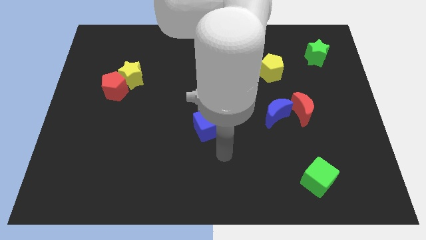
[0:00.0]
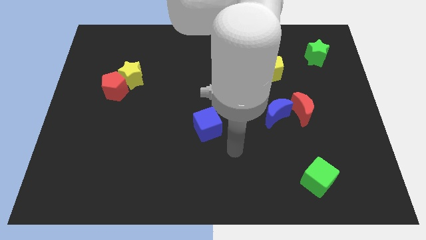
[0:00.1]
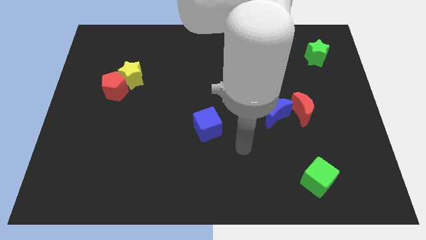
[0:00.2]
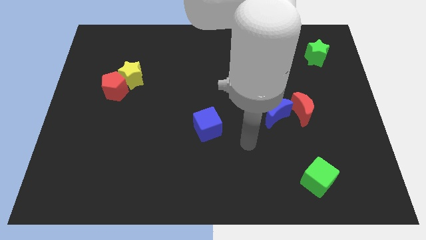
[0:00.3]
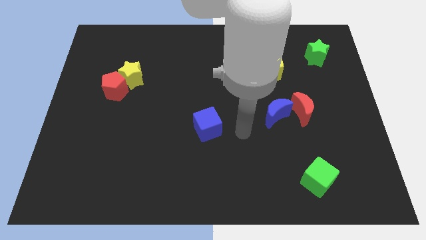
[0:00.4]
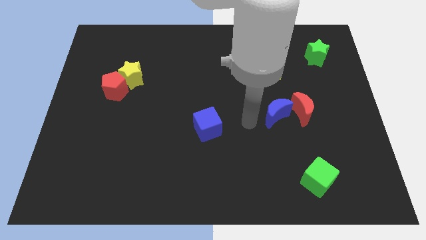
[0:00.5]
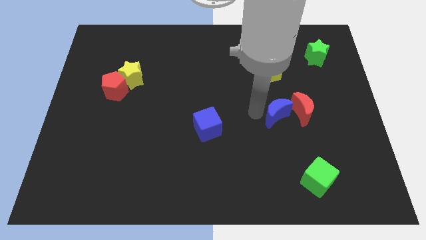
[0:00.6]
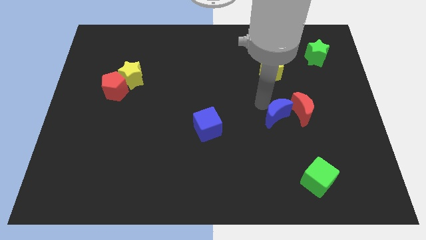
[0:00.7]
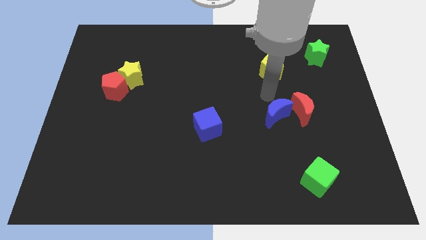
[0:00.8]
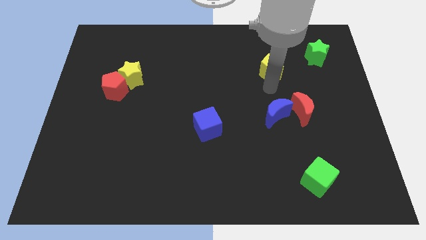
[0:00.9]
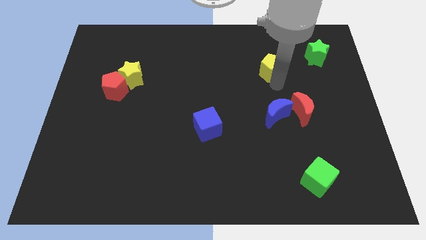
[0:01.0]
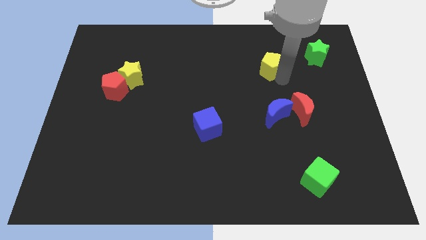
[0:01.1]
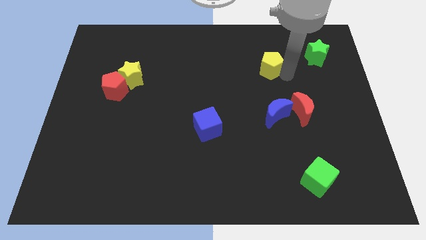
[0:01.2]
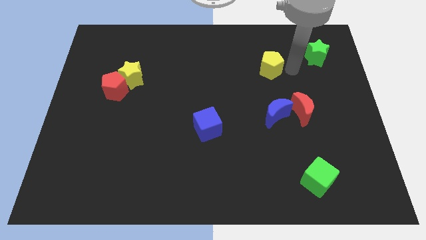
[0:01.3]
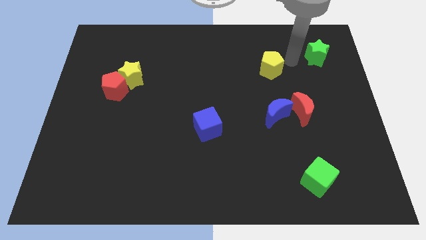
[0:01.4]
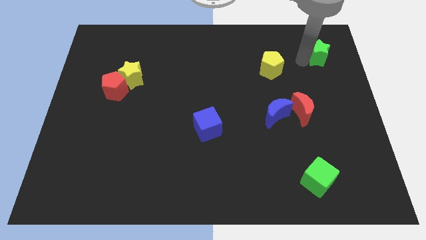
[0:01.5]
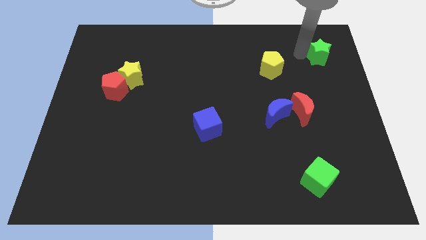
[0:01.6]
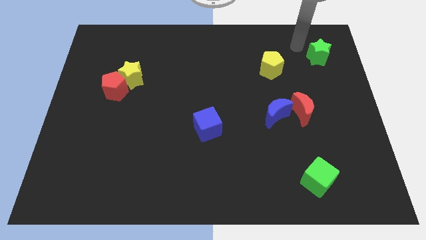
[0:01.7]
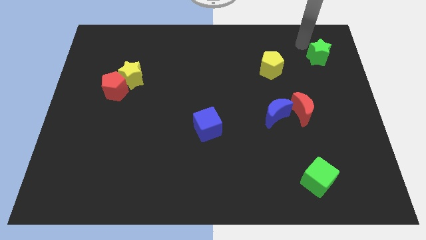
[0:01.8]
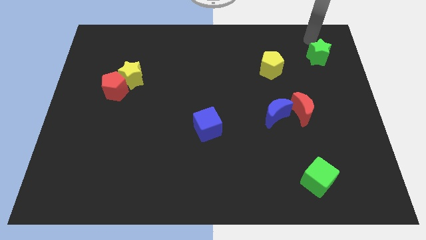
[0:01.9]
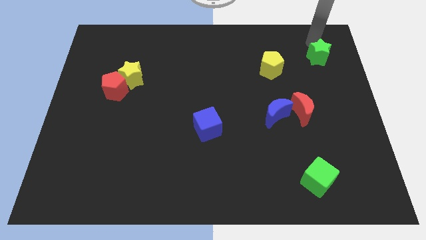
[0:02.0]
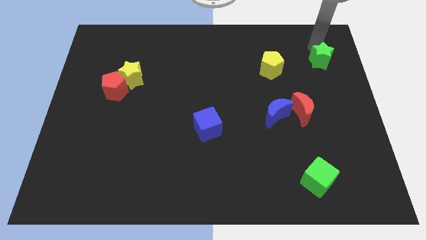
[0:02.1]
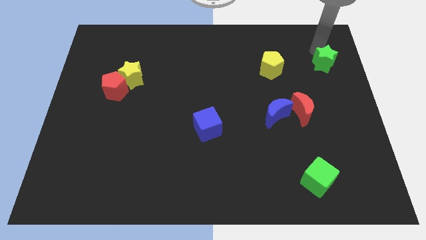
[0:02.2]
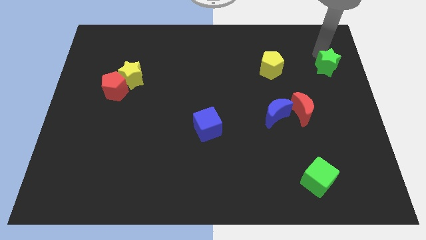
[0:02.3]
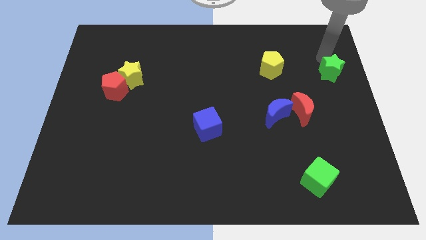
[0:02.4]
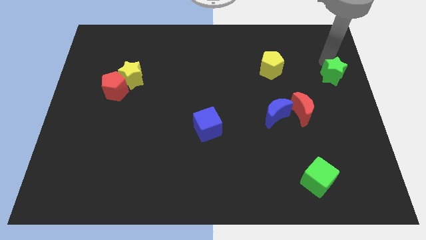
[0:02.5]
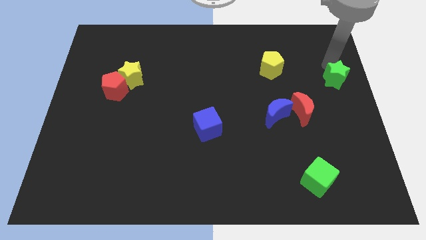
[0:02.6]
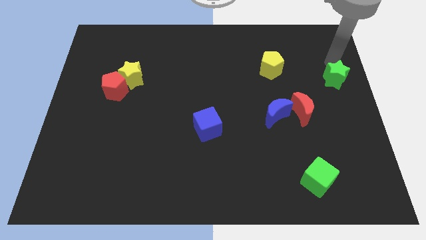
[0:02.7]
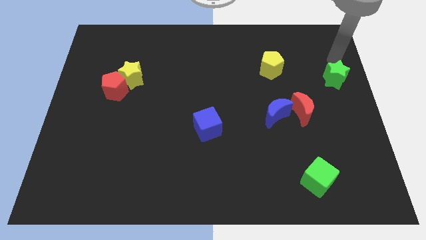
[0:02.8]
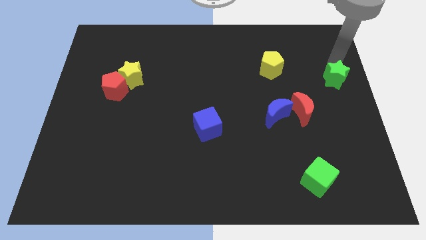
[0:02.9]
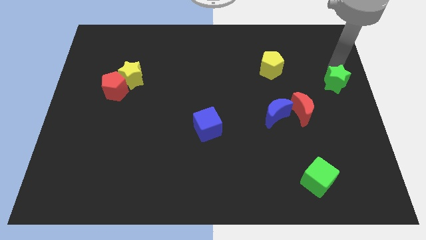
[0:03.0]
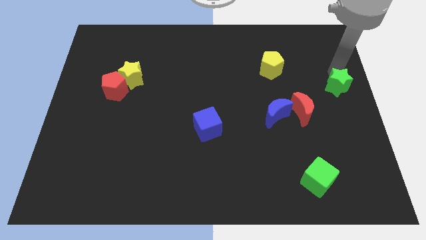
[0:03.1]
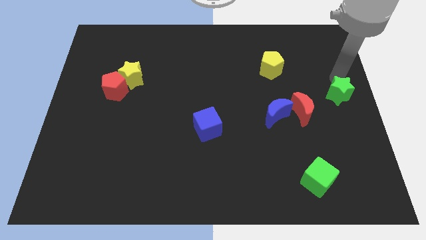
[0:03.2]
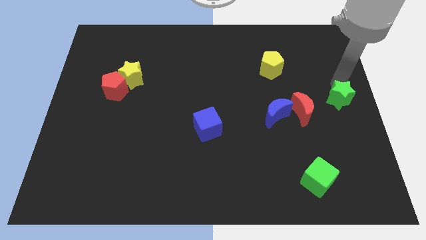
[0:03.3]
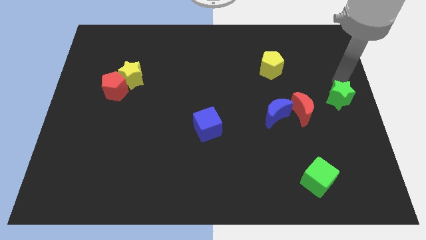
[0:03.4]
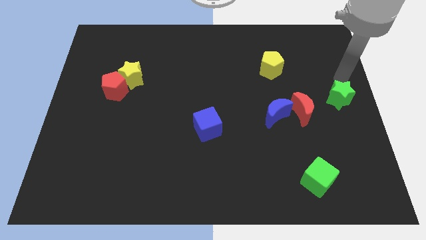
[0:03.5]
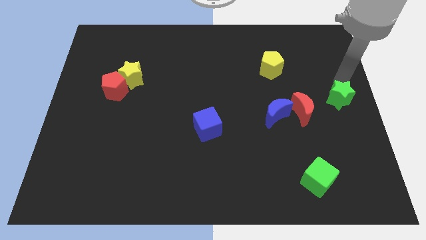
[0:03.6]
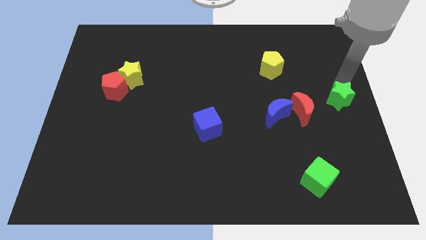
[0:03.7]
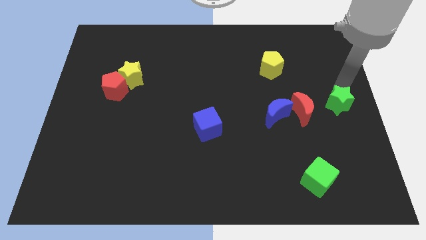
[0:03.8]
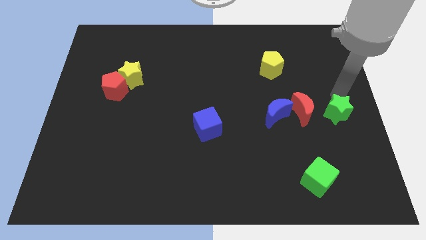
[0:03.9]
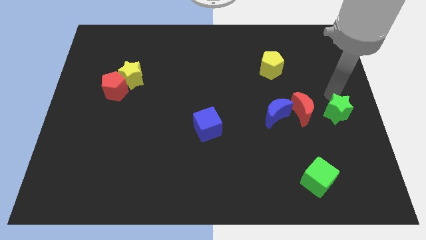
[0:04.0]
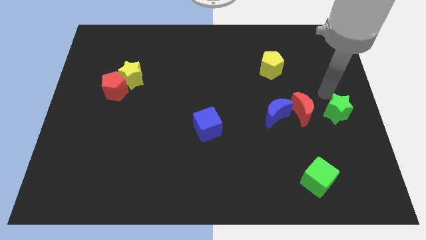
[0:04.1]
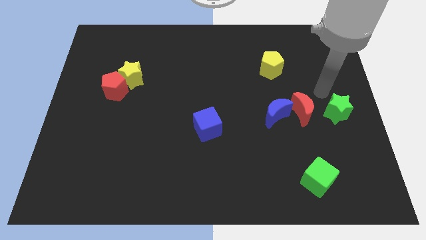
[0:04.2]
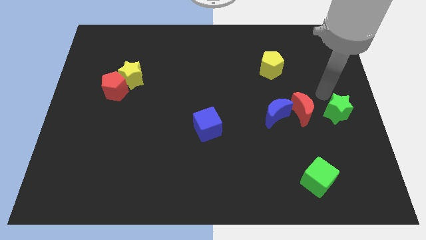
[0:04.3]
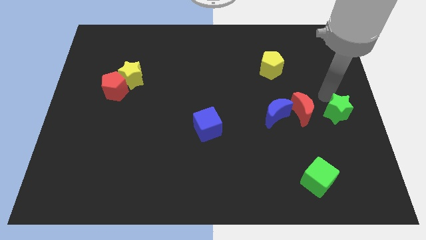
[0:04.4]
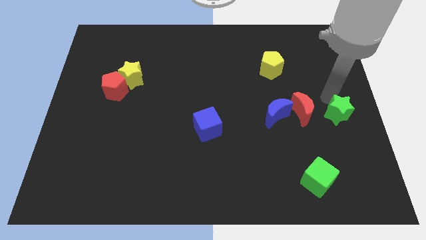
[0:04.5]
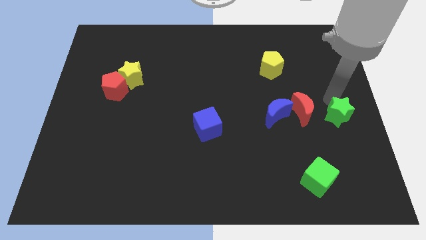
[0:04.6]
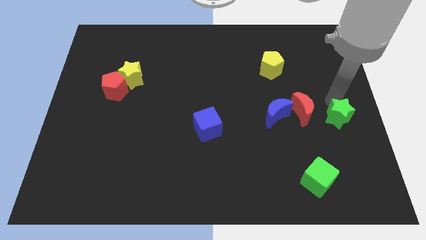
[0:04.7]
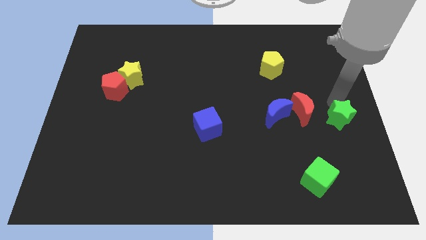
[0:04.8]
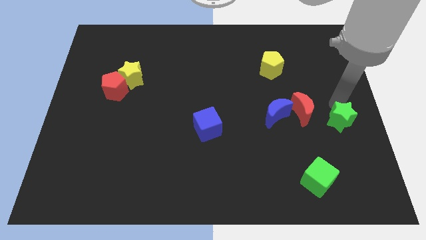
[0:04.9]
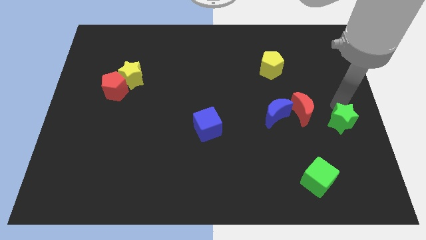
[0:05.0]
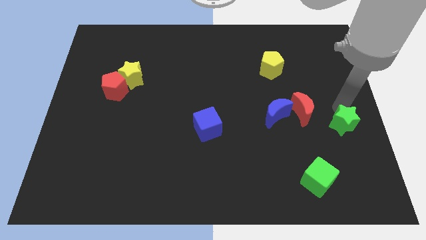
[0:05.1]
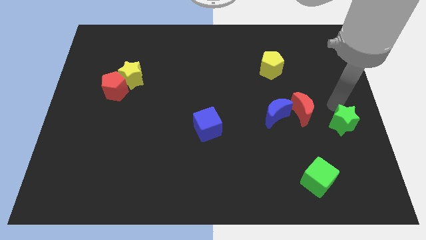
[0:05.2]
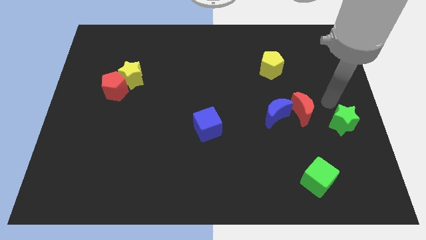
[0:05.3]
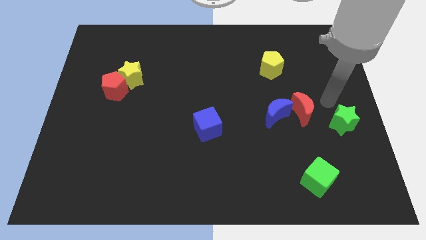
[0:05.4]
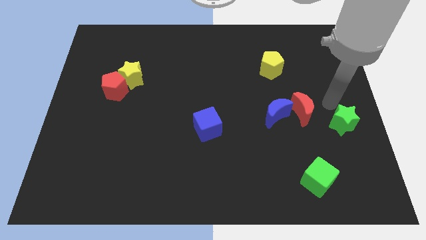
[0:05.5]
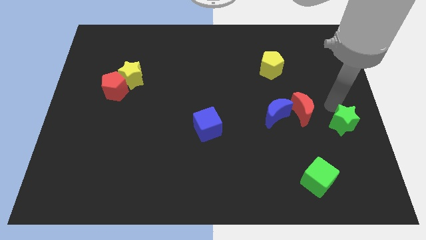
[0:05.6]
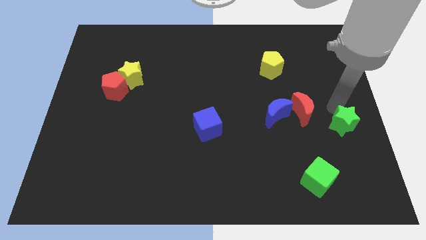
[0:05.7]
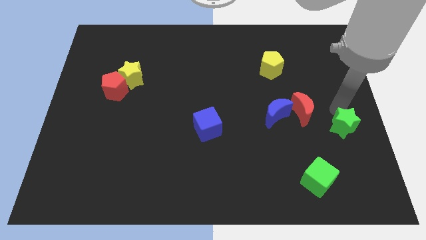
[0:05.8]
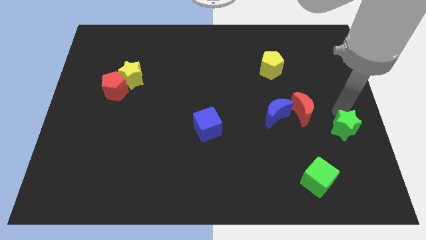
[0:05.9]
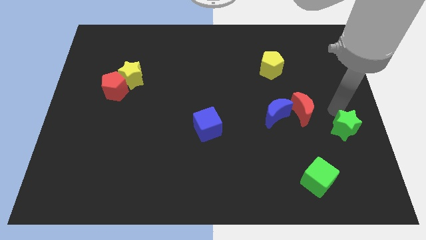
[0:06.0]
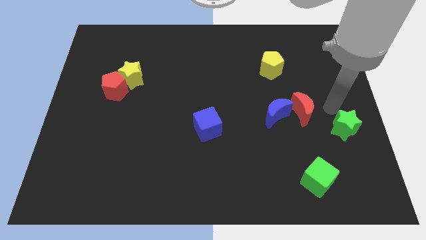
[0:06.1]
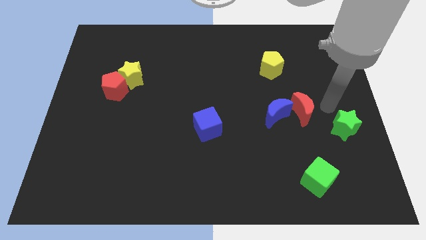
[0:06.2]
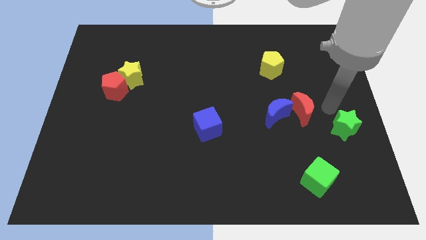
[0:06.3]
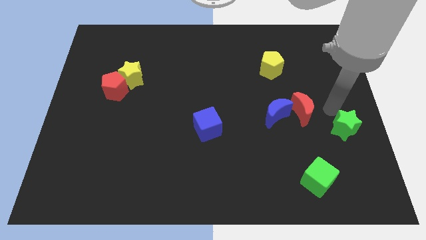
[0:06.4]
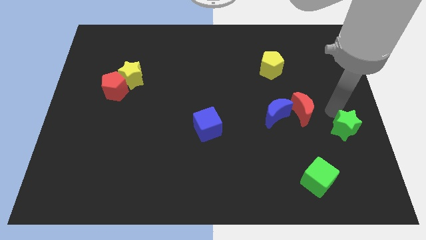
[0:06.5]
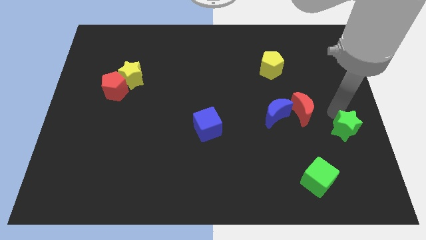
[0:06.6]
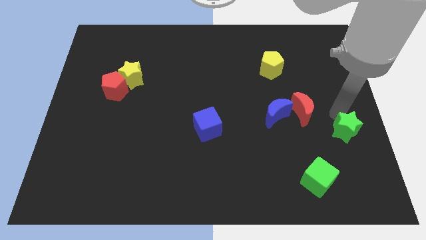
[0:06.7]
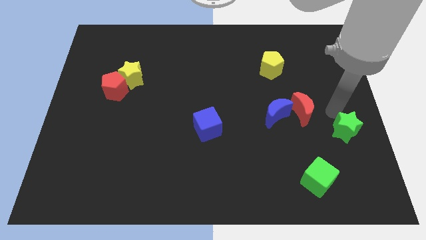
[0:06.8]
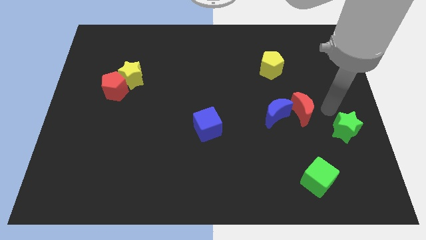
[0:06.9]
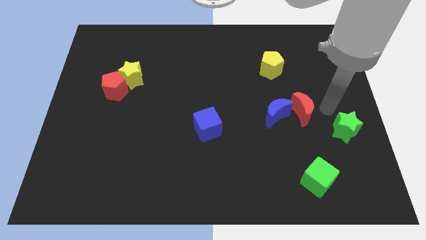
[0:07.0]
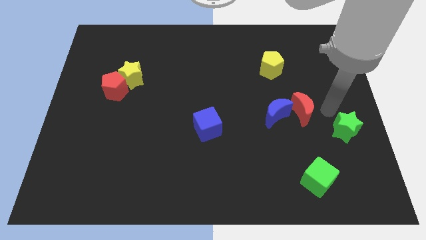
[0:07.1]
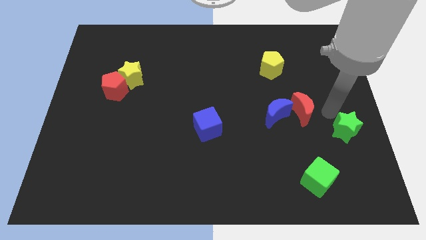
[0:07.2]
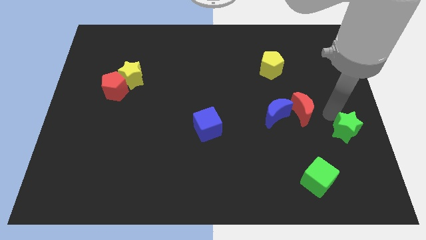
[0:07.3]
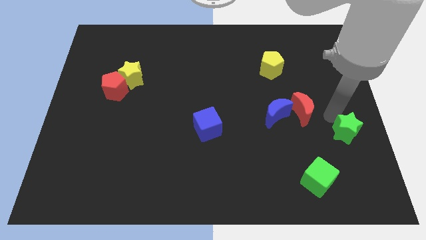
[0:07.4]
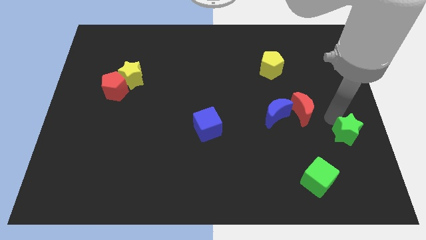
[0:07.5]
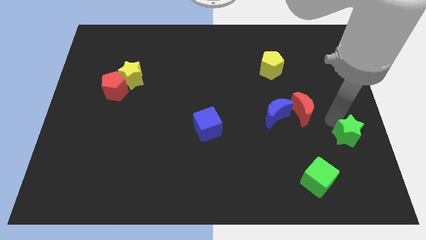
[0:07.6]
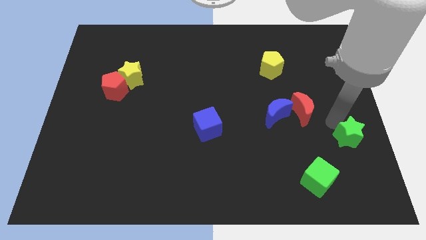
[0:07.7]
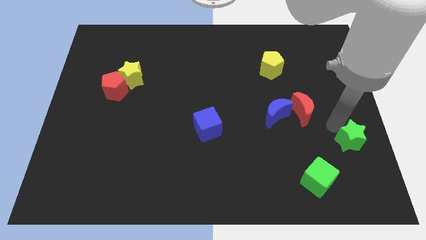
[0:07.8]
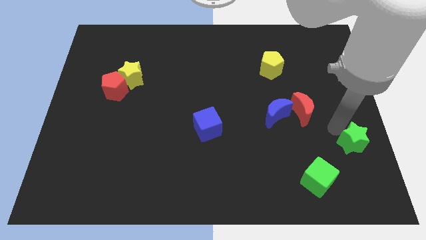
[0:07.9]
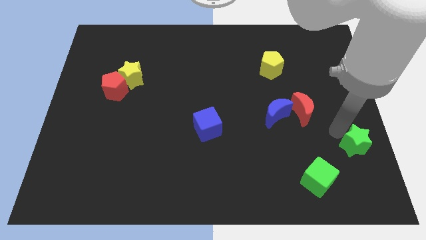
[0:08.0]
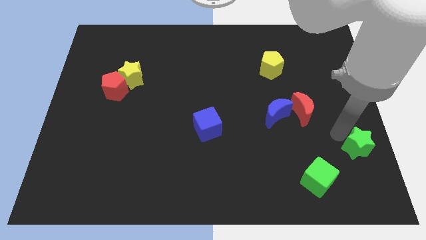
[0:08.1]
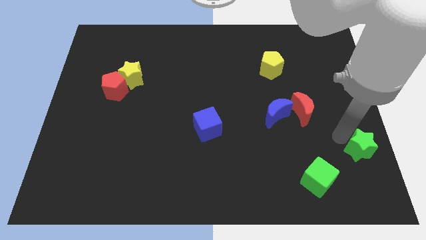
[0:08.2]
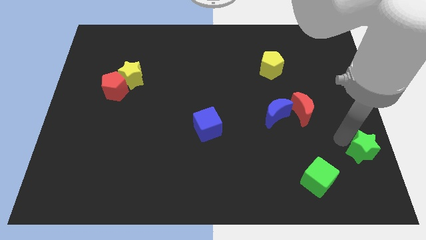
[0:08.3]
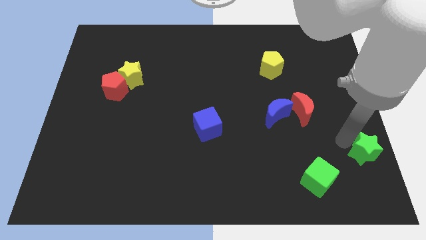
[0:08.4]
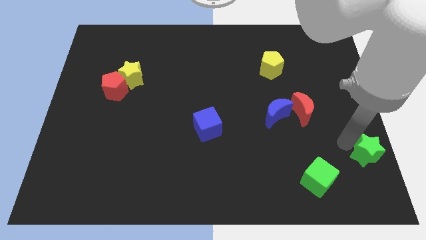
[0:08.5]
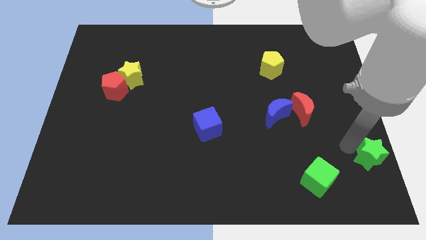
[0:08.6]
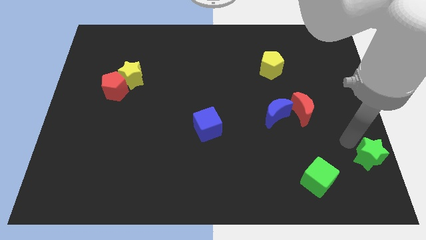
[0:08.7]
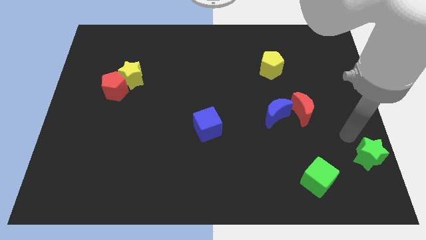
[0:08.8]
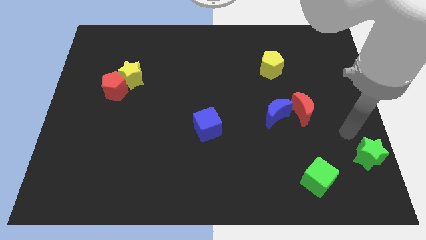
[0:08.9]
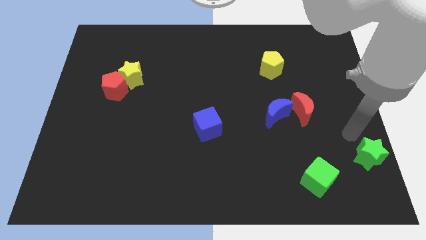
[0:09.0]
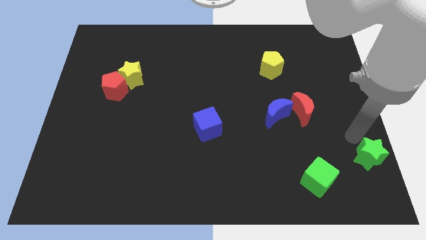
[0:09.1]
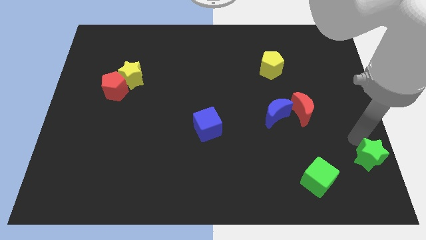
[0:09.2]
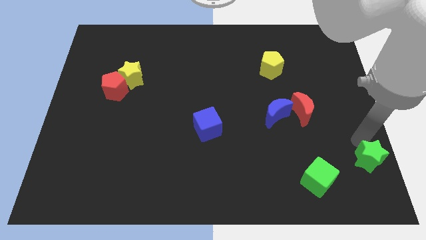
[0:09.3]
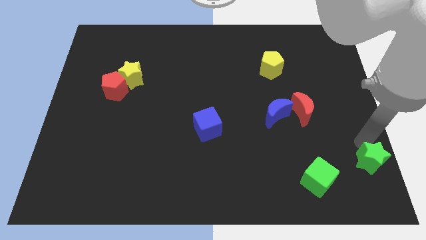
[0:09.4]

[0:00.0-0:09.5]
slide the green star to the bottom right corner
